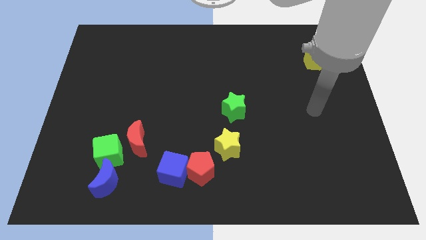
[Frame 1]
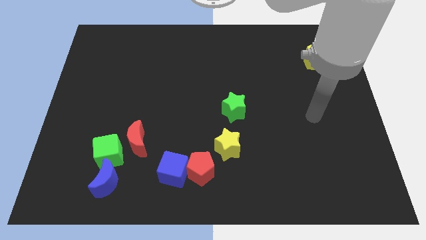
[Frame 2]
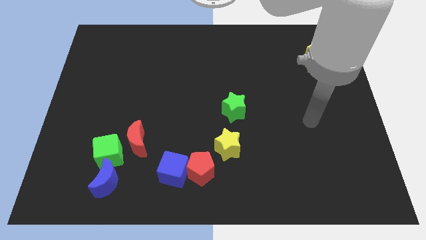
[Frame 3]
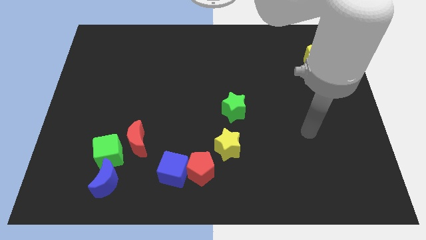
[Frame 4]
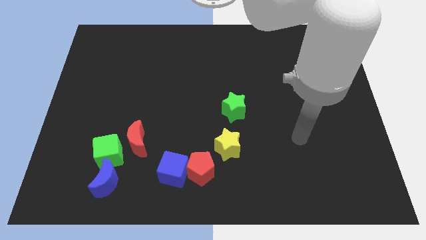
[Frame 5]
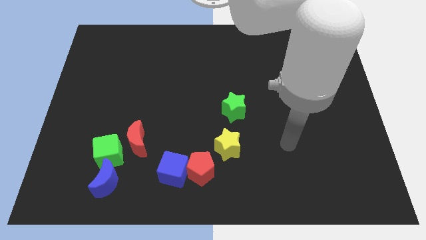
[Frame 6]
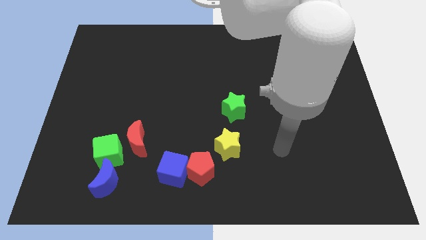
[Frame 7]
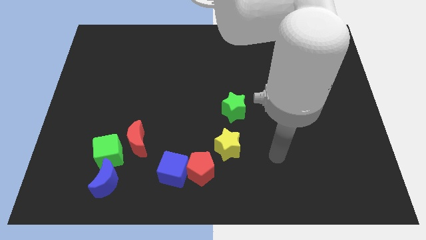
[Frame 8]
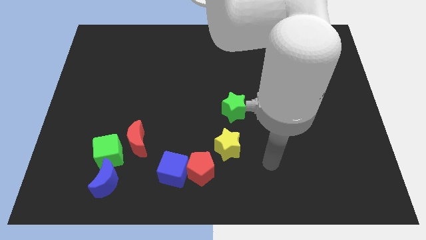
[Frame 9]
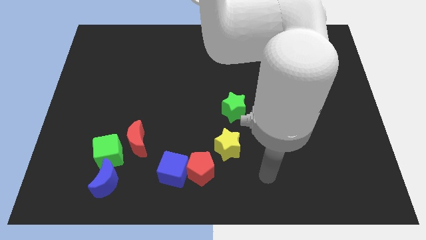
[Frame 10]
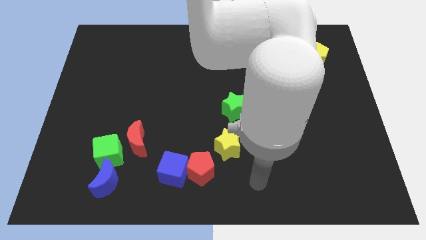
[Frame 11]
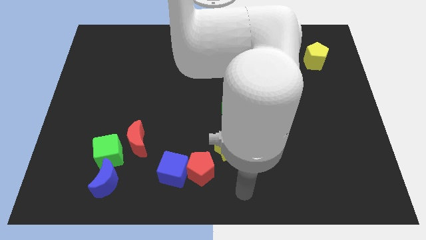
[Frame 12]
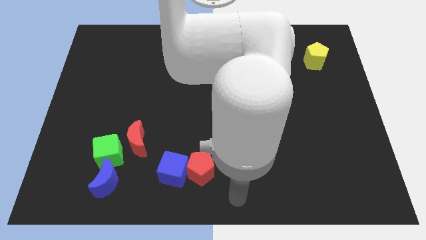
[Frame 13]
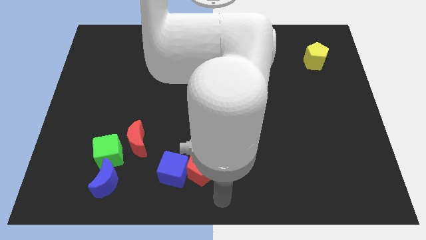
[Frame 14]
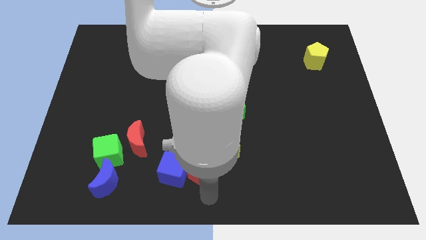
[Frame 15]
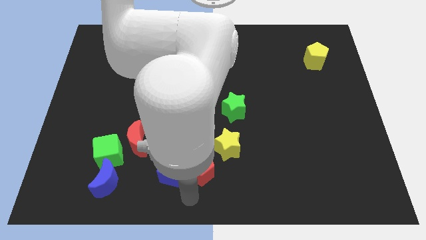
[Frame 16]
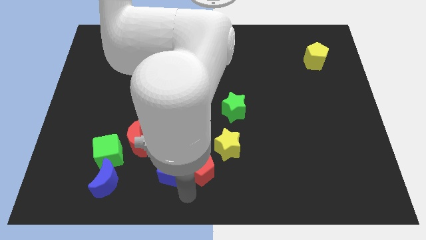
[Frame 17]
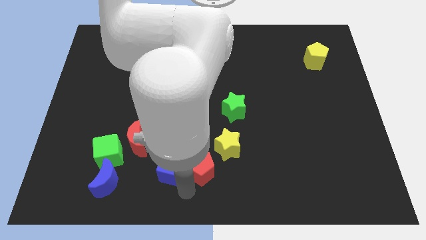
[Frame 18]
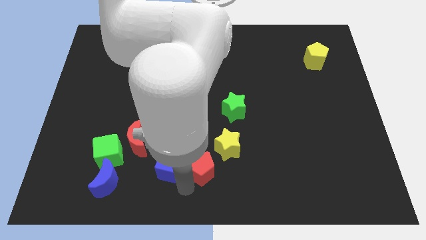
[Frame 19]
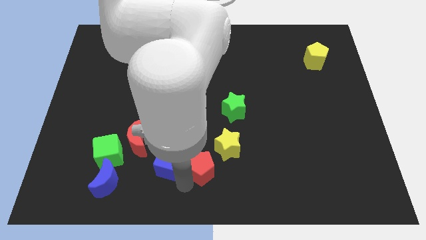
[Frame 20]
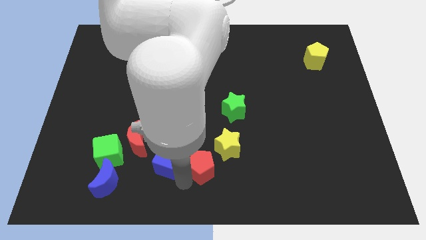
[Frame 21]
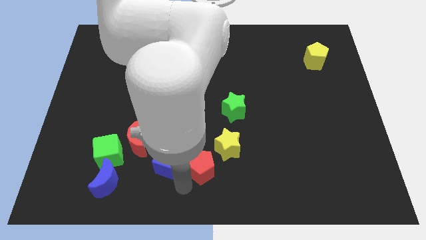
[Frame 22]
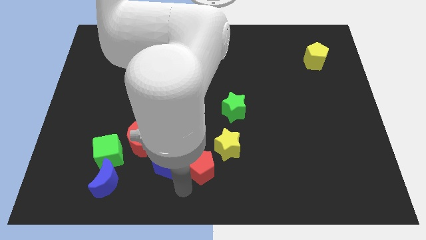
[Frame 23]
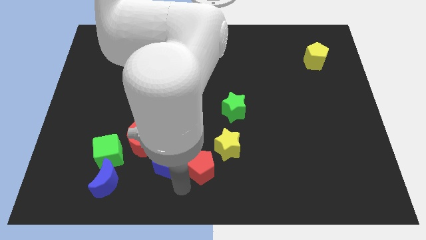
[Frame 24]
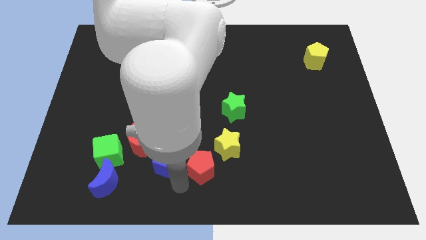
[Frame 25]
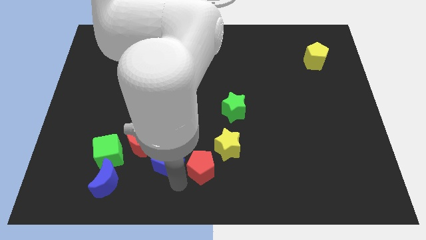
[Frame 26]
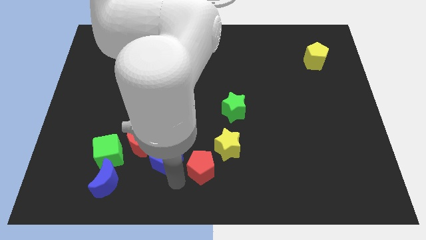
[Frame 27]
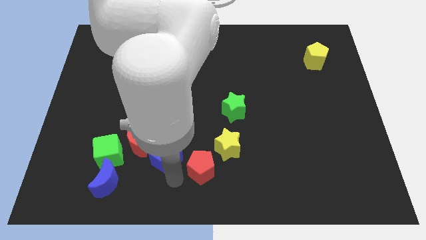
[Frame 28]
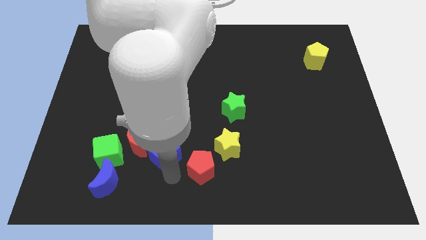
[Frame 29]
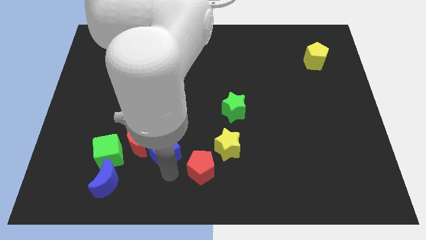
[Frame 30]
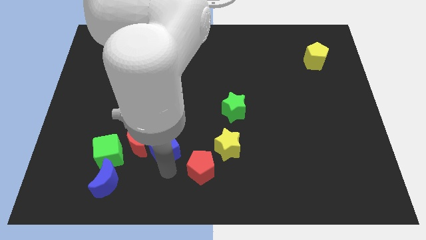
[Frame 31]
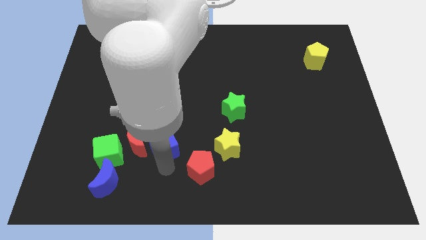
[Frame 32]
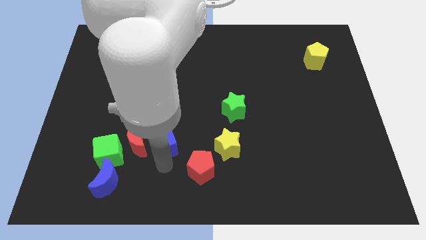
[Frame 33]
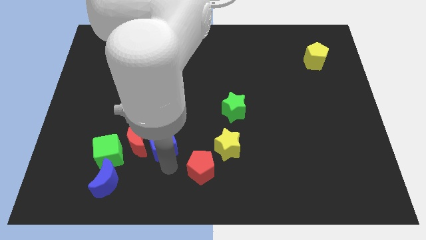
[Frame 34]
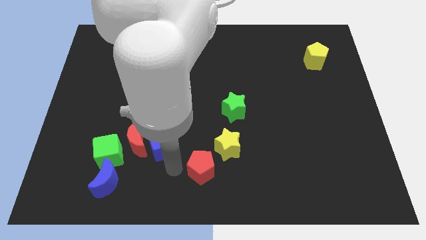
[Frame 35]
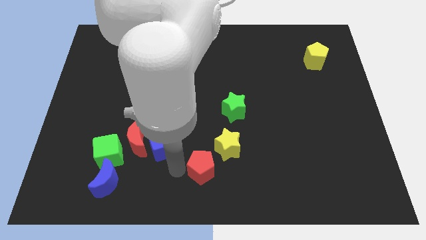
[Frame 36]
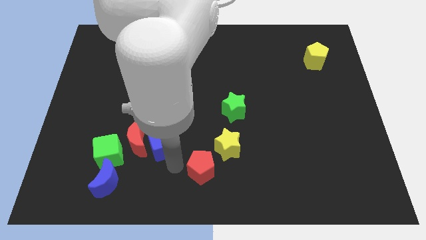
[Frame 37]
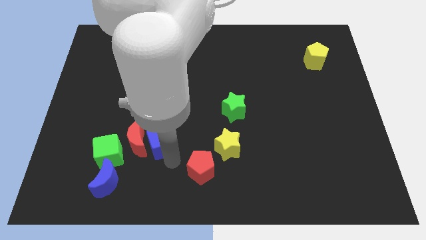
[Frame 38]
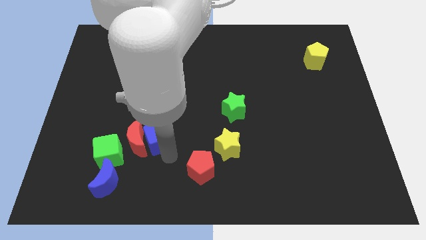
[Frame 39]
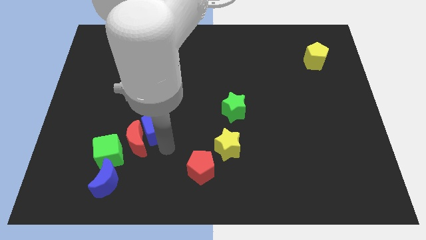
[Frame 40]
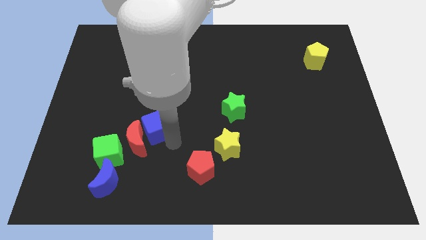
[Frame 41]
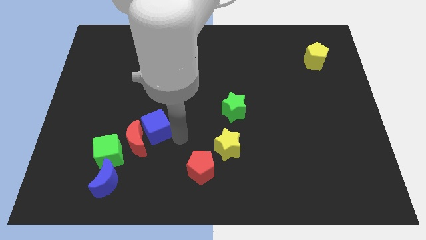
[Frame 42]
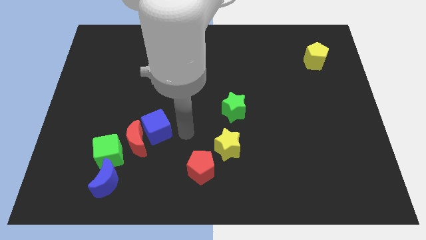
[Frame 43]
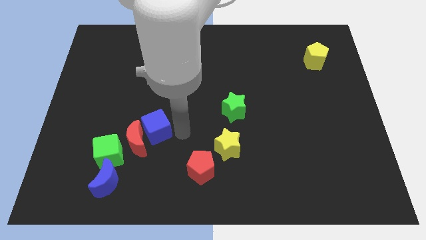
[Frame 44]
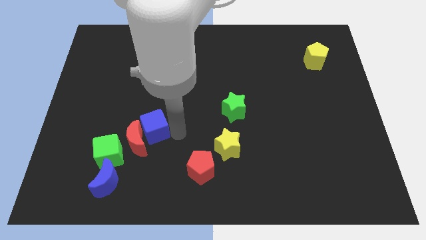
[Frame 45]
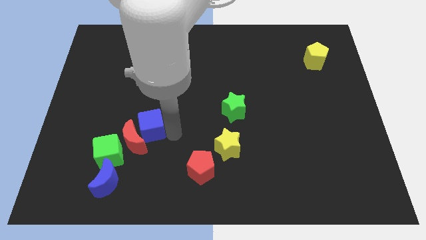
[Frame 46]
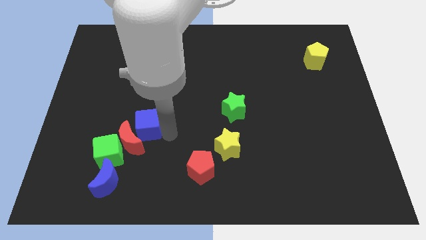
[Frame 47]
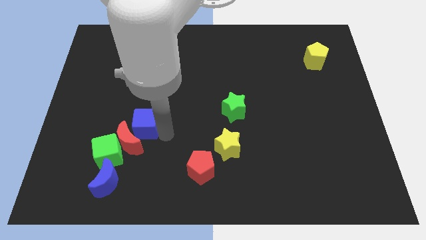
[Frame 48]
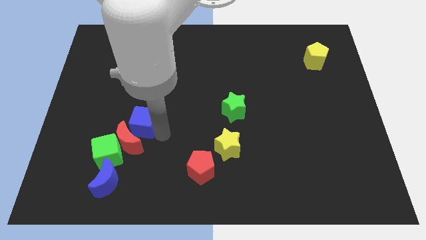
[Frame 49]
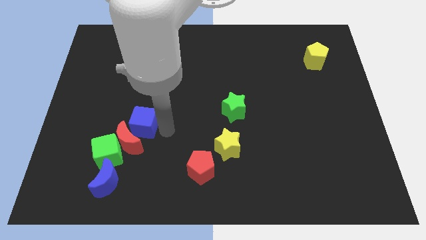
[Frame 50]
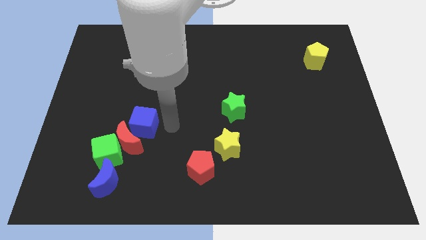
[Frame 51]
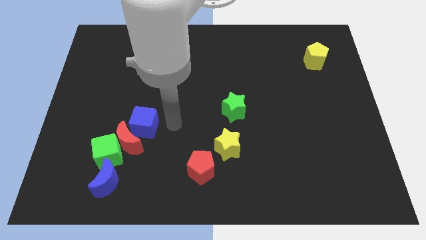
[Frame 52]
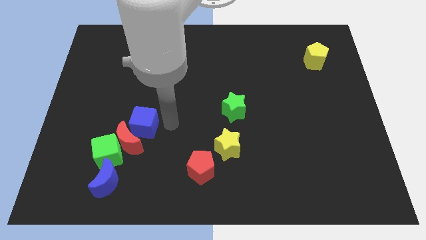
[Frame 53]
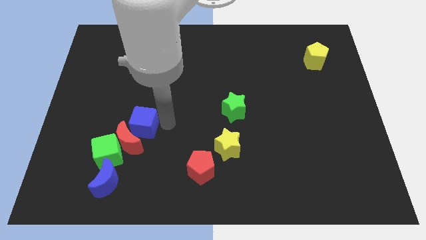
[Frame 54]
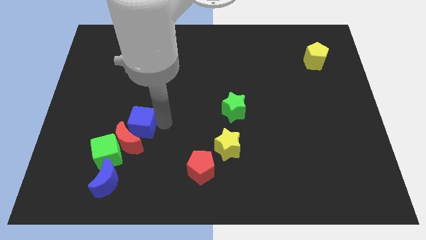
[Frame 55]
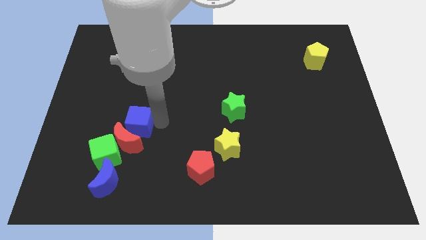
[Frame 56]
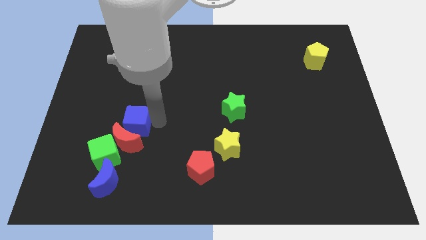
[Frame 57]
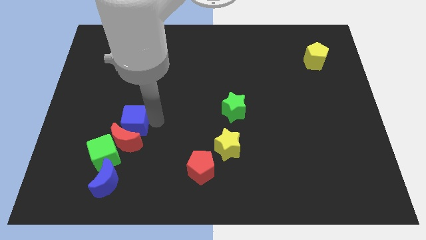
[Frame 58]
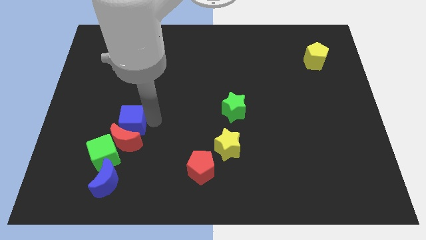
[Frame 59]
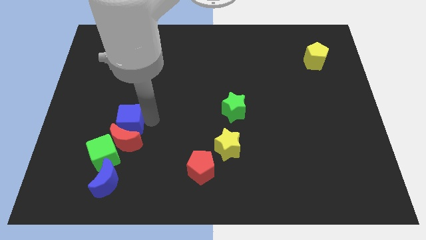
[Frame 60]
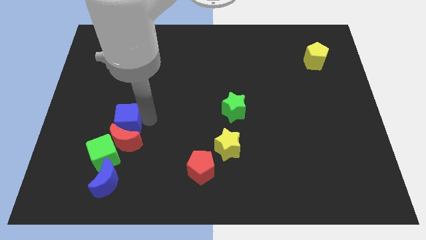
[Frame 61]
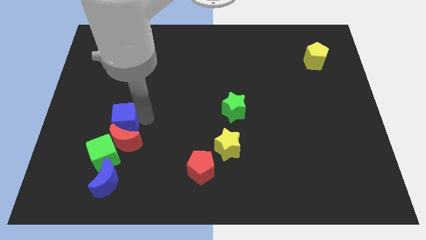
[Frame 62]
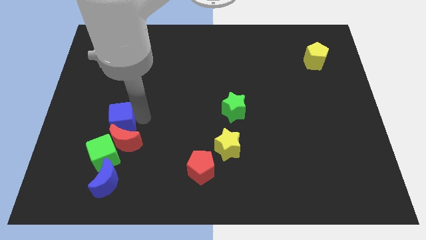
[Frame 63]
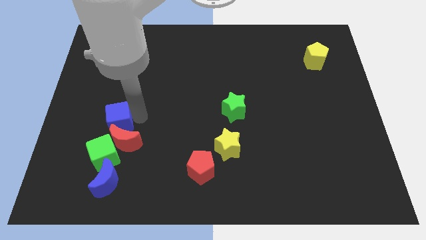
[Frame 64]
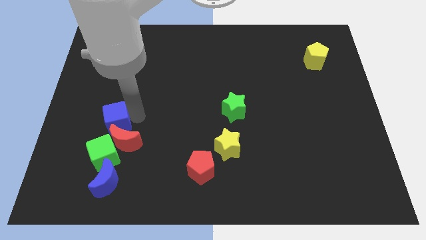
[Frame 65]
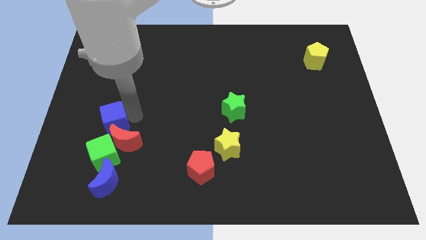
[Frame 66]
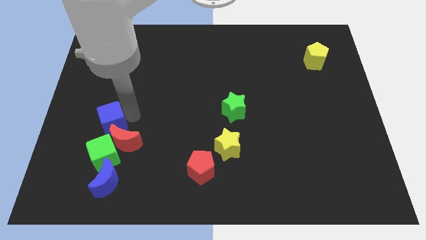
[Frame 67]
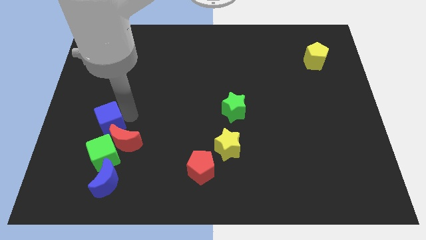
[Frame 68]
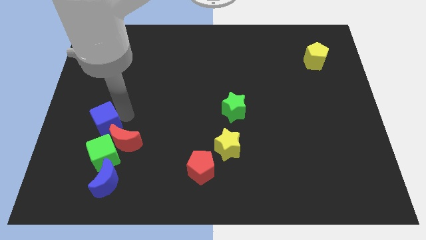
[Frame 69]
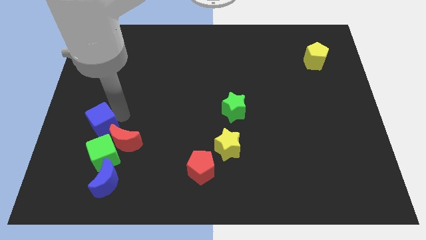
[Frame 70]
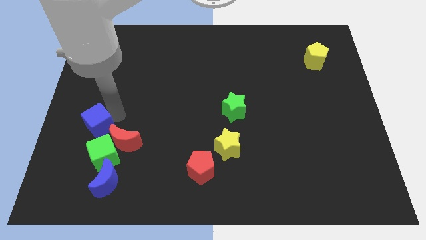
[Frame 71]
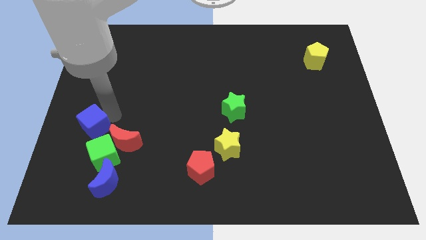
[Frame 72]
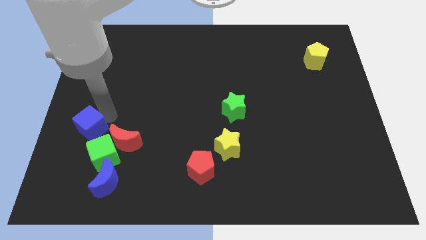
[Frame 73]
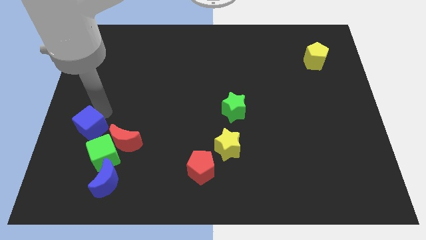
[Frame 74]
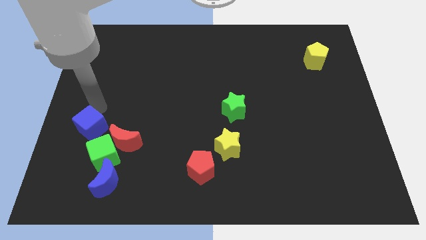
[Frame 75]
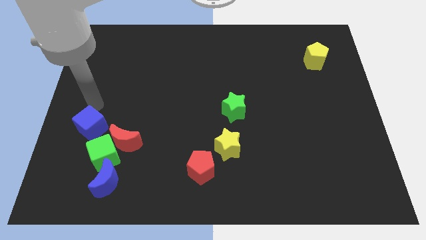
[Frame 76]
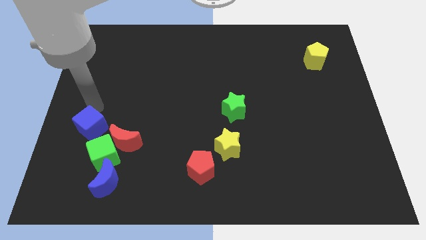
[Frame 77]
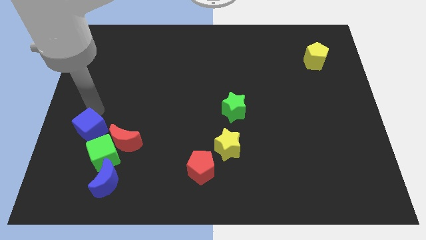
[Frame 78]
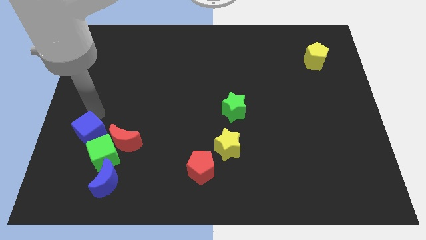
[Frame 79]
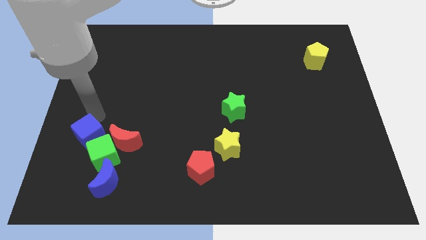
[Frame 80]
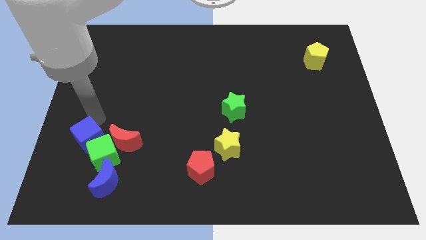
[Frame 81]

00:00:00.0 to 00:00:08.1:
push the blue cube diagonally up and to the left of the blue moon
